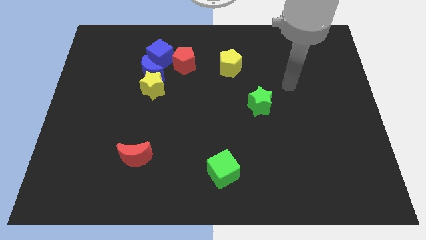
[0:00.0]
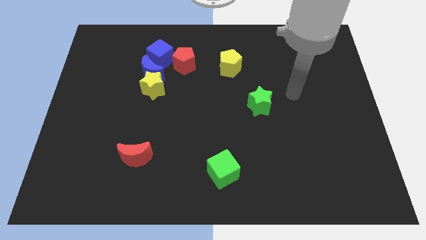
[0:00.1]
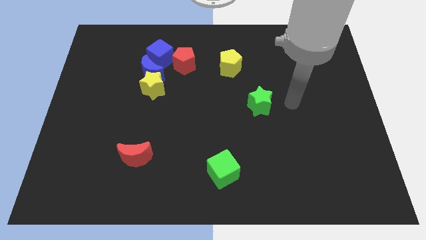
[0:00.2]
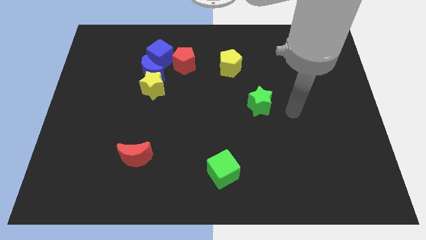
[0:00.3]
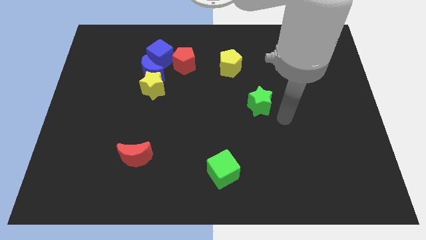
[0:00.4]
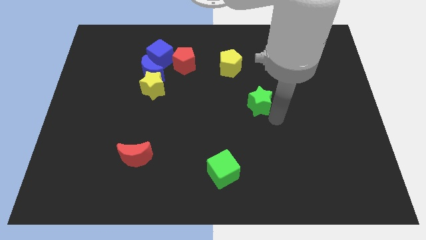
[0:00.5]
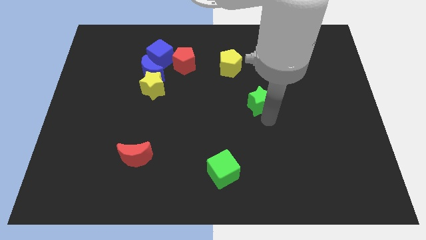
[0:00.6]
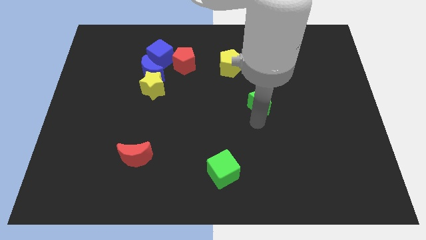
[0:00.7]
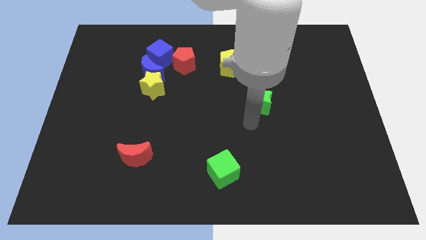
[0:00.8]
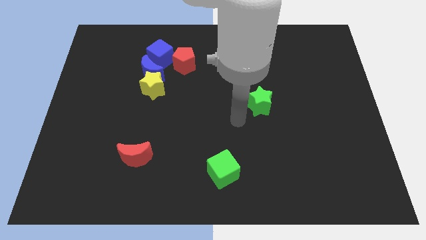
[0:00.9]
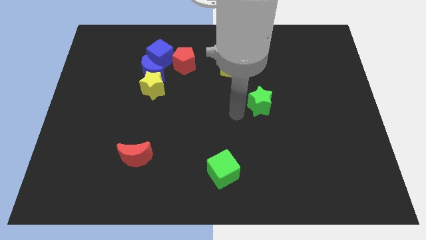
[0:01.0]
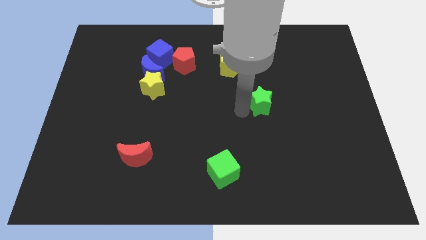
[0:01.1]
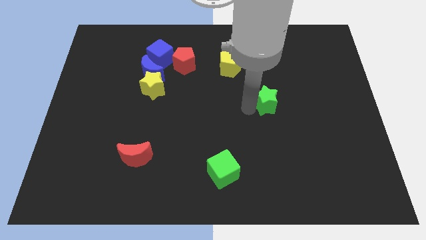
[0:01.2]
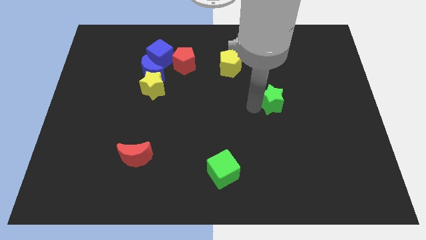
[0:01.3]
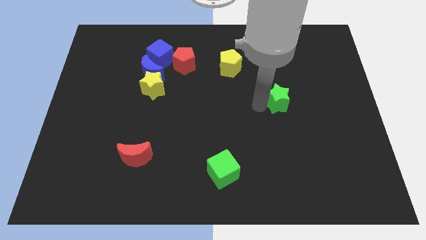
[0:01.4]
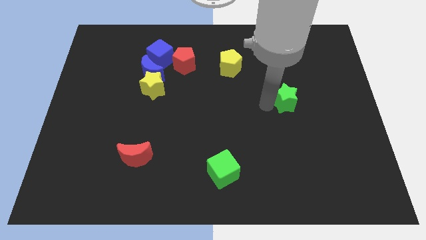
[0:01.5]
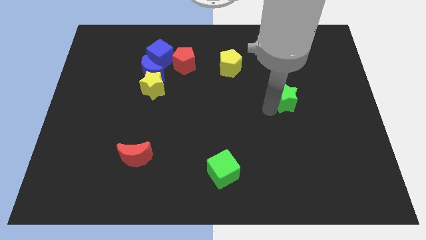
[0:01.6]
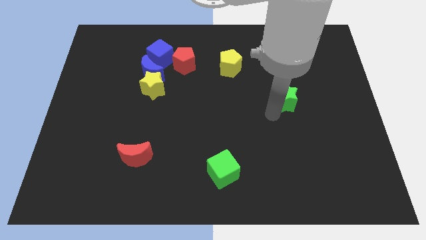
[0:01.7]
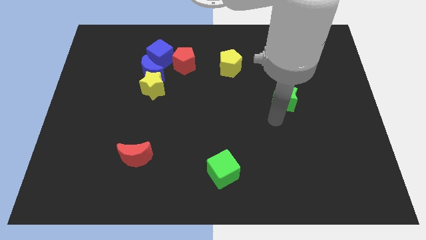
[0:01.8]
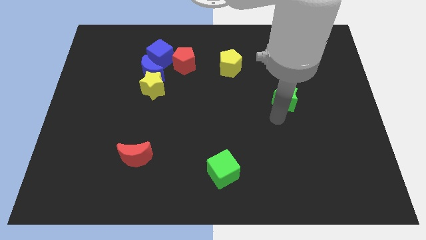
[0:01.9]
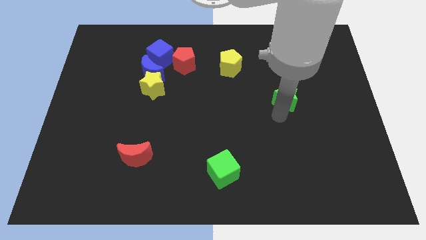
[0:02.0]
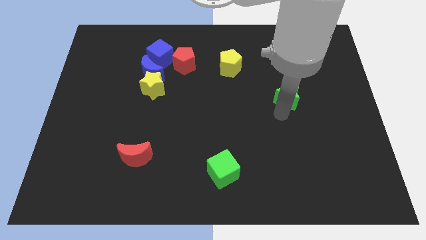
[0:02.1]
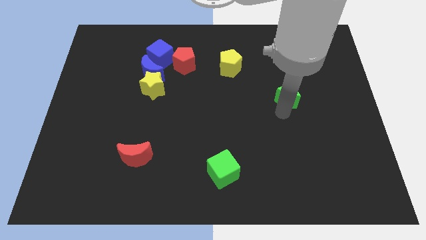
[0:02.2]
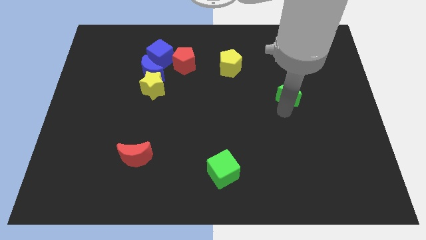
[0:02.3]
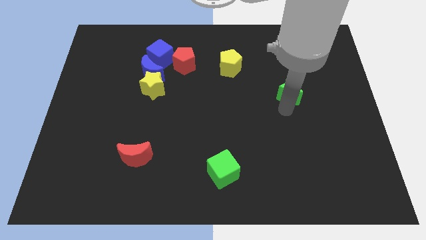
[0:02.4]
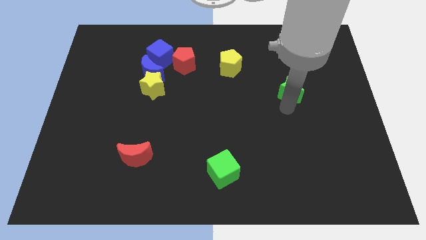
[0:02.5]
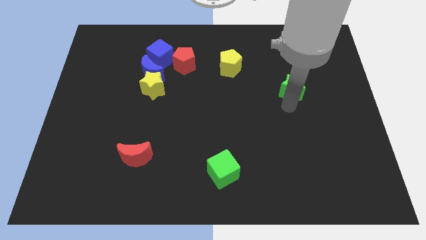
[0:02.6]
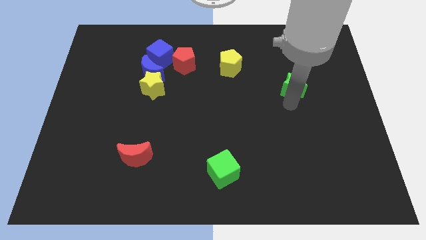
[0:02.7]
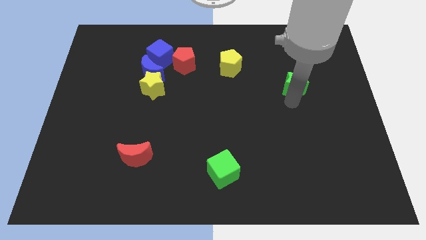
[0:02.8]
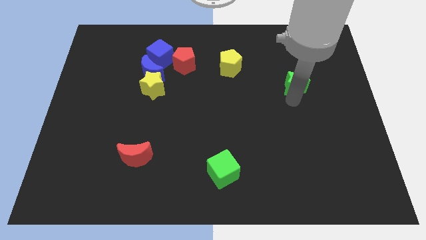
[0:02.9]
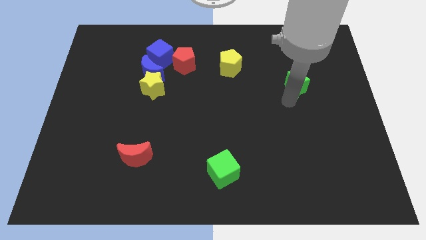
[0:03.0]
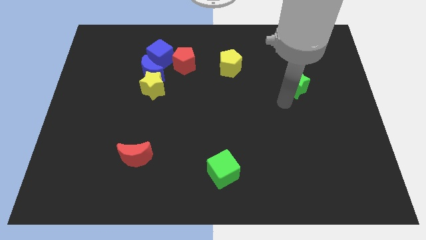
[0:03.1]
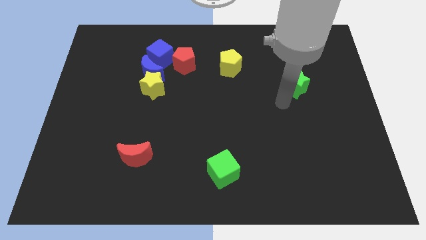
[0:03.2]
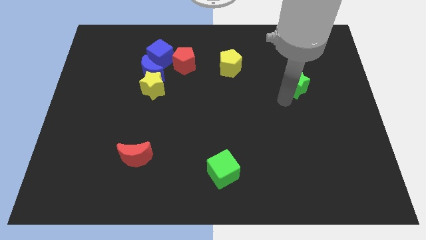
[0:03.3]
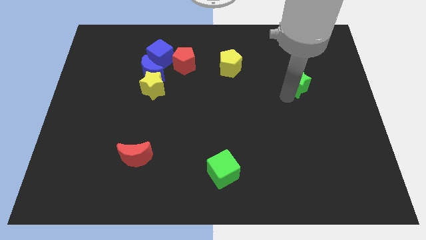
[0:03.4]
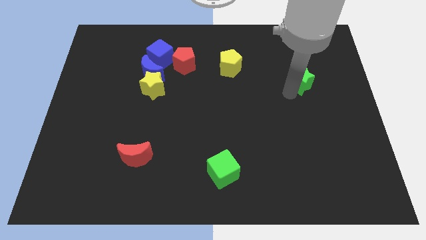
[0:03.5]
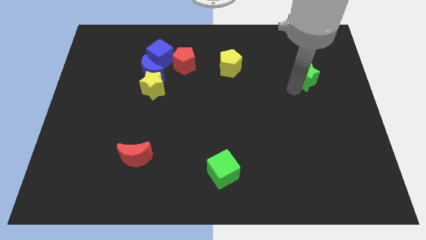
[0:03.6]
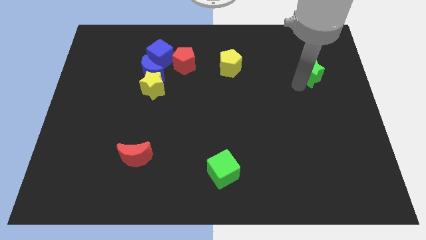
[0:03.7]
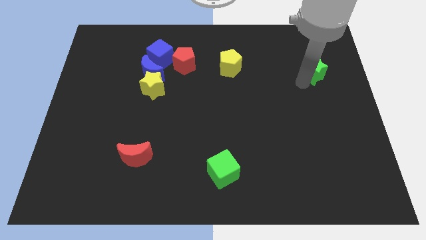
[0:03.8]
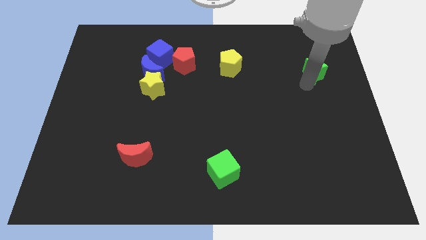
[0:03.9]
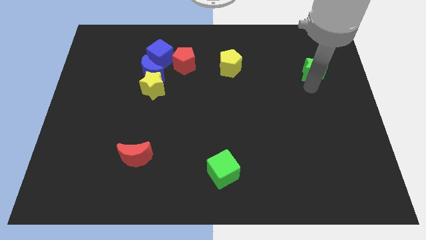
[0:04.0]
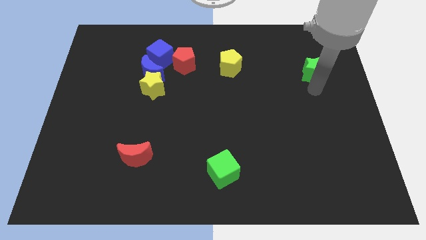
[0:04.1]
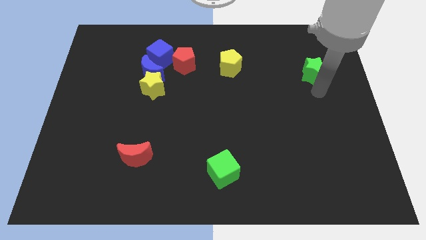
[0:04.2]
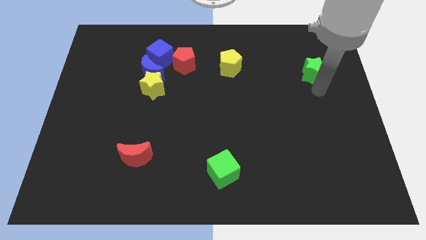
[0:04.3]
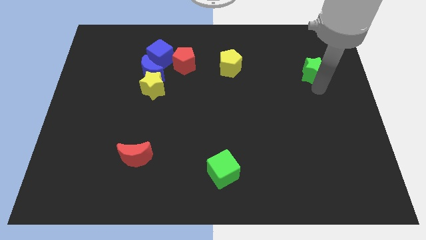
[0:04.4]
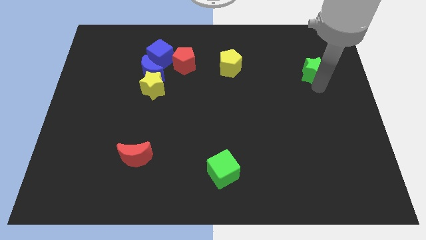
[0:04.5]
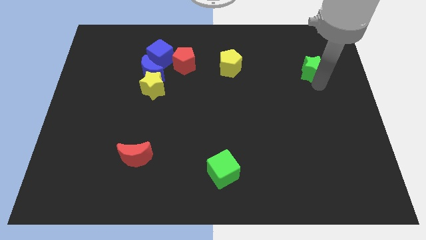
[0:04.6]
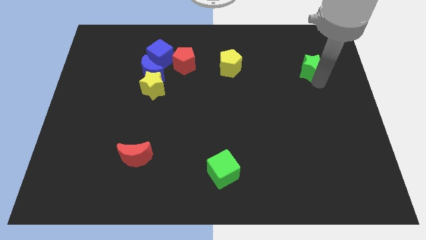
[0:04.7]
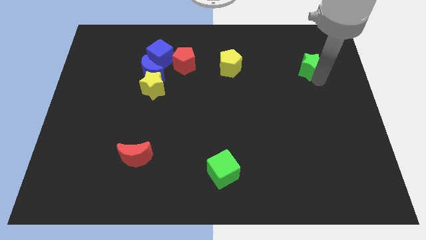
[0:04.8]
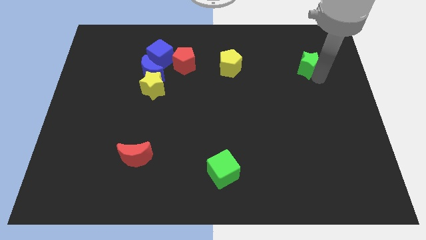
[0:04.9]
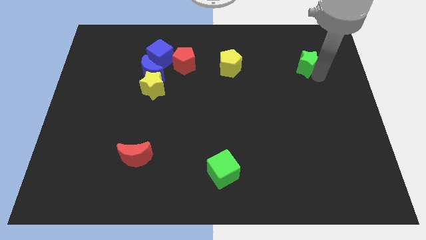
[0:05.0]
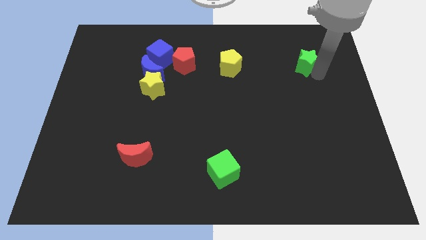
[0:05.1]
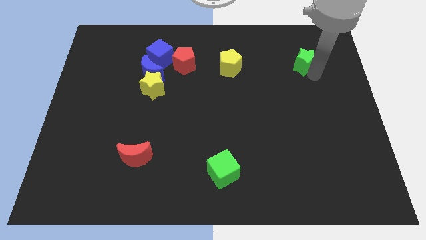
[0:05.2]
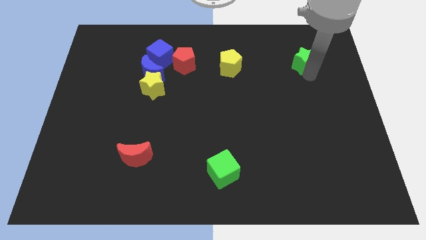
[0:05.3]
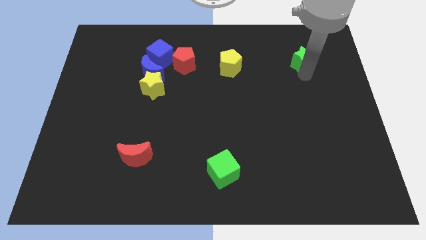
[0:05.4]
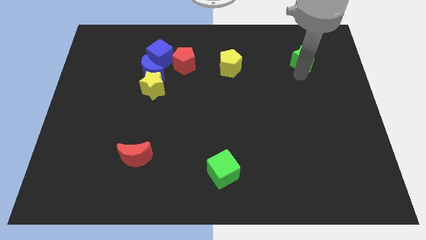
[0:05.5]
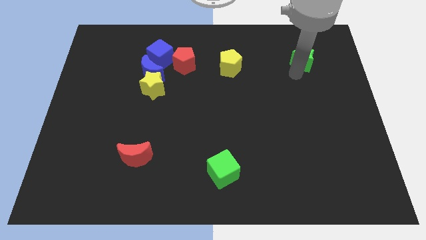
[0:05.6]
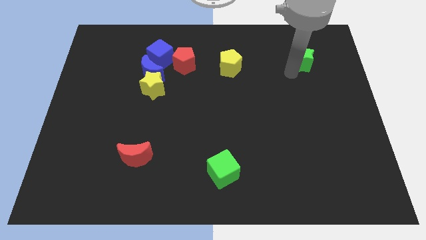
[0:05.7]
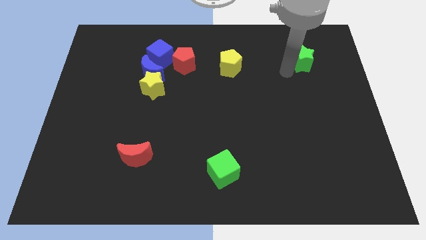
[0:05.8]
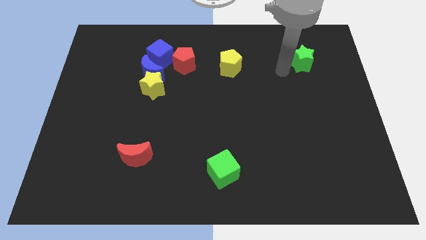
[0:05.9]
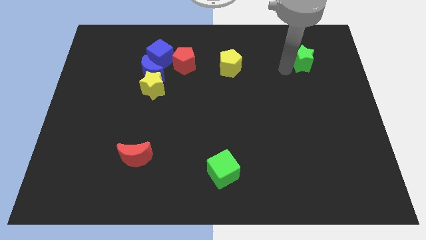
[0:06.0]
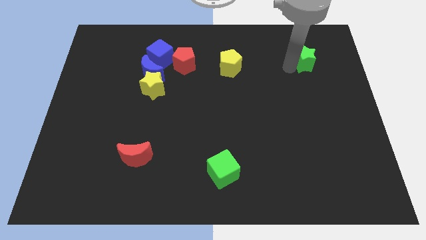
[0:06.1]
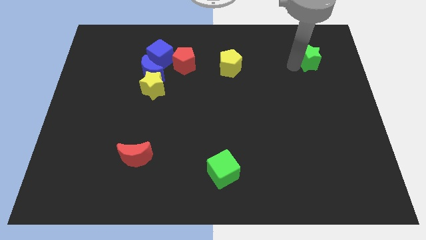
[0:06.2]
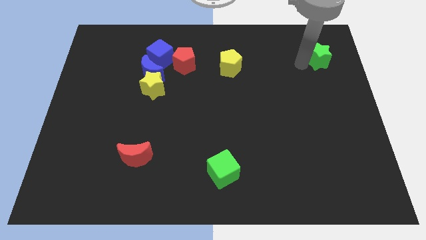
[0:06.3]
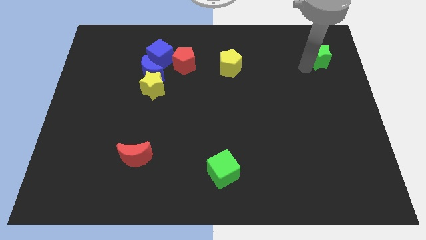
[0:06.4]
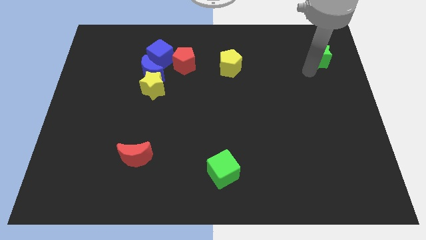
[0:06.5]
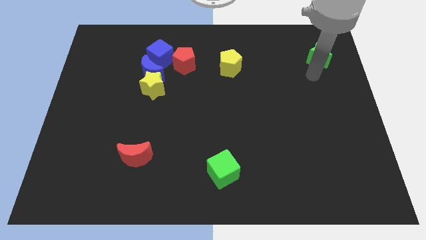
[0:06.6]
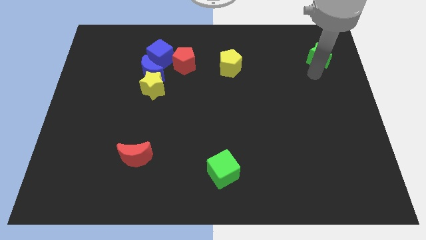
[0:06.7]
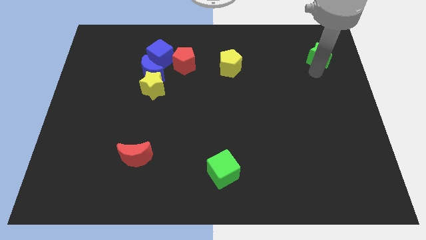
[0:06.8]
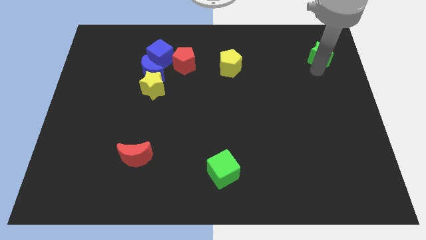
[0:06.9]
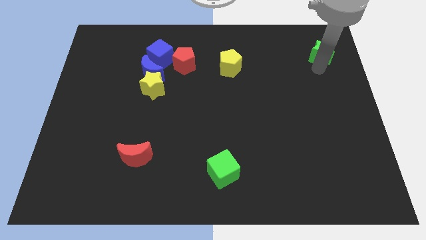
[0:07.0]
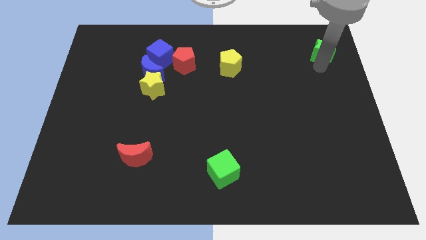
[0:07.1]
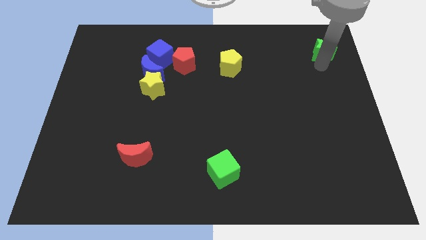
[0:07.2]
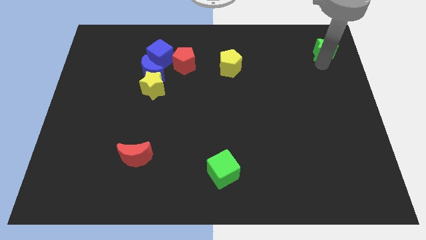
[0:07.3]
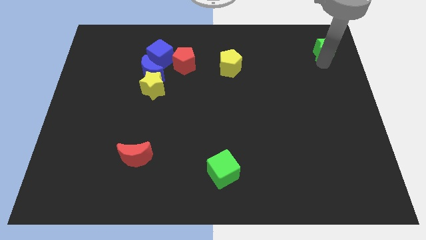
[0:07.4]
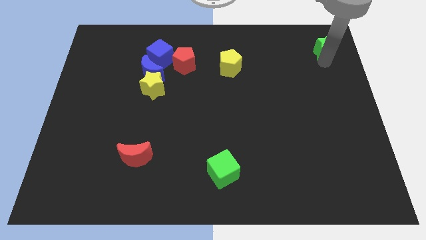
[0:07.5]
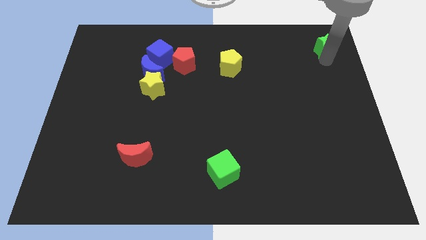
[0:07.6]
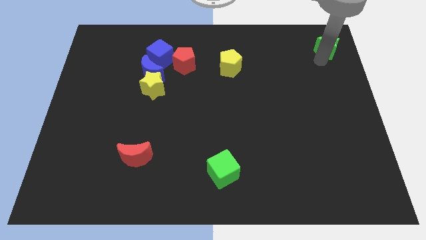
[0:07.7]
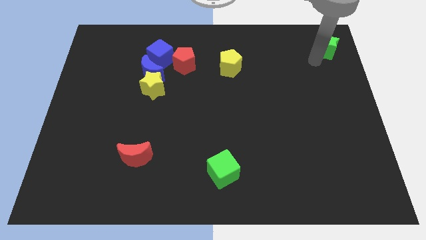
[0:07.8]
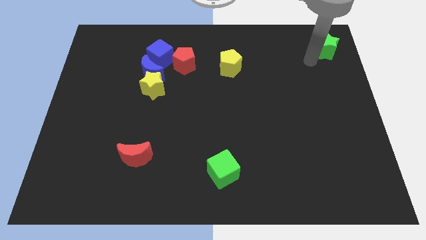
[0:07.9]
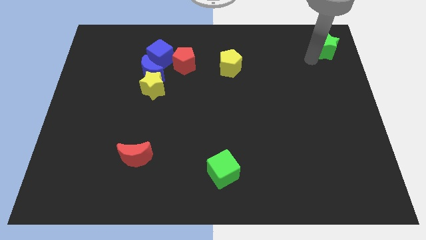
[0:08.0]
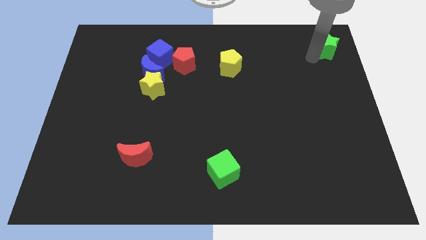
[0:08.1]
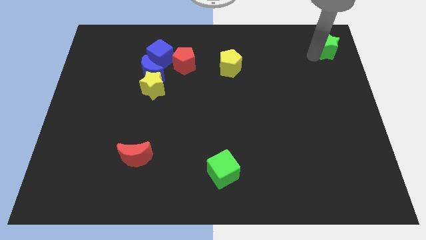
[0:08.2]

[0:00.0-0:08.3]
slide the green star to the upper right corner
